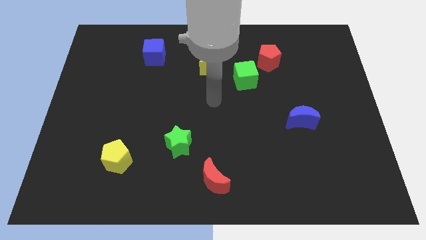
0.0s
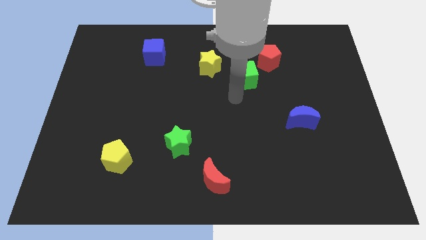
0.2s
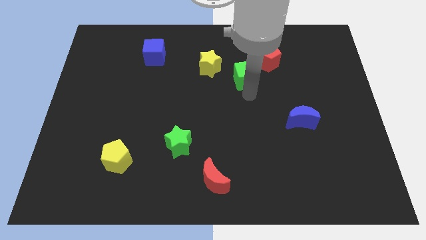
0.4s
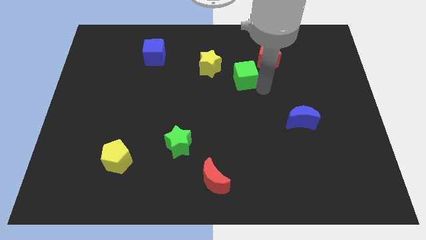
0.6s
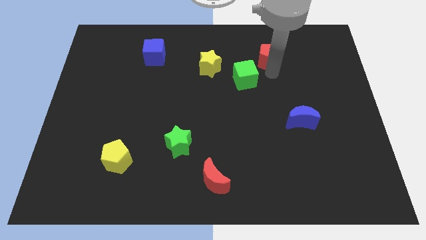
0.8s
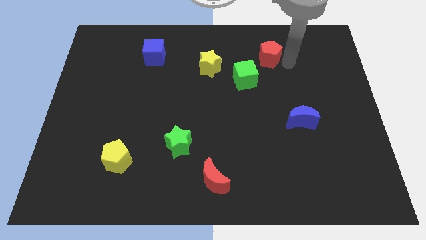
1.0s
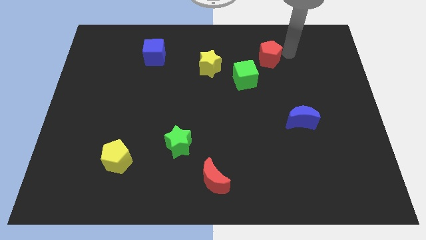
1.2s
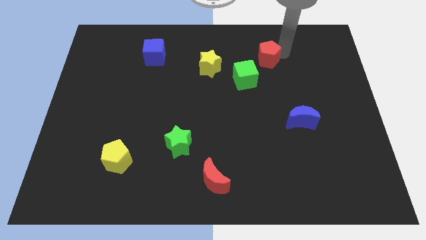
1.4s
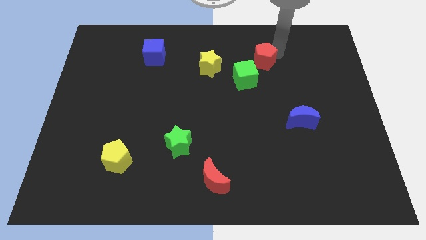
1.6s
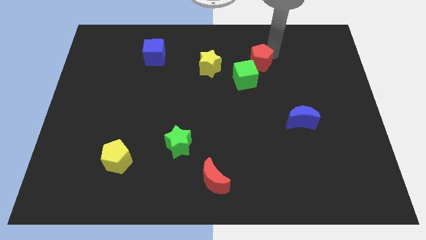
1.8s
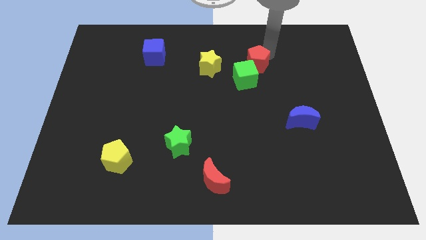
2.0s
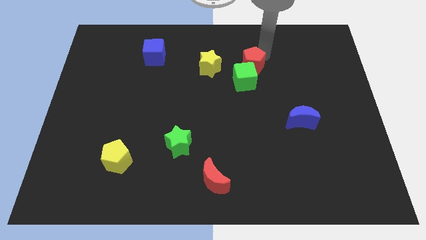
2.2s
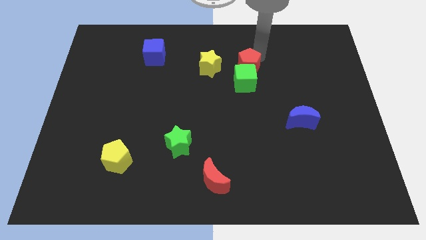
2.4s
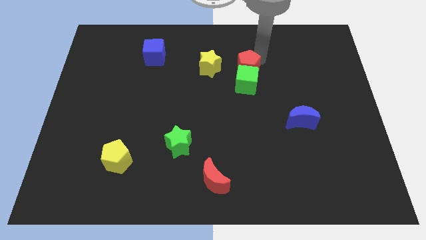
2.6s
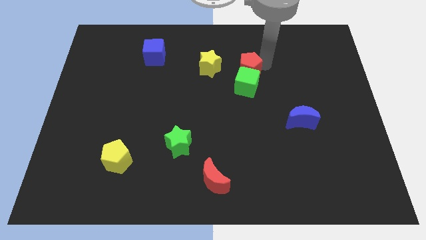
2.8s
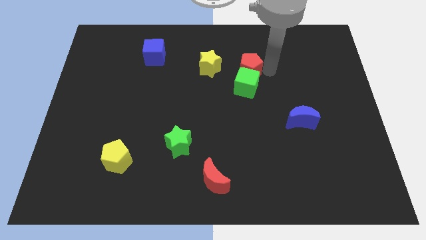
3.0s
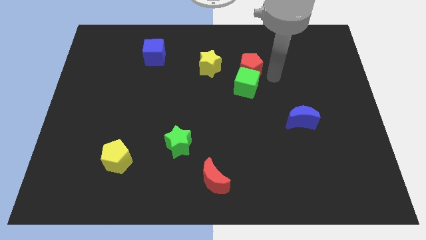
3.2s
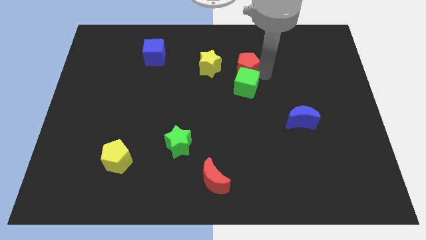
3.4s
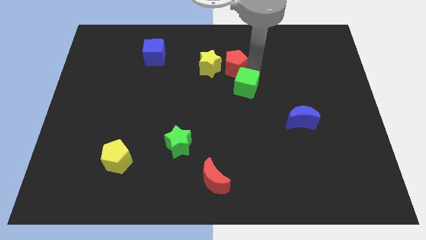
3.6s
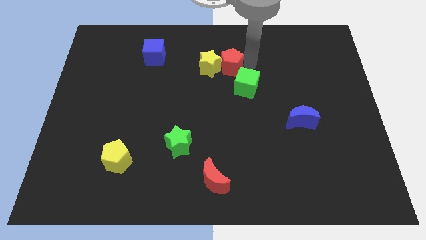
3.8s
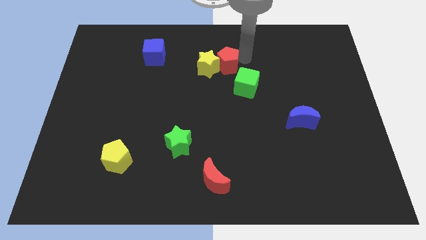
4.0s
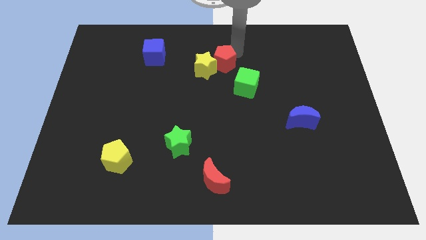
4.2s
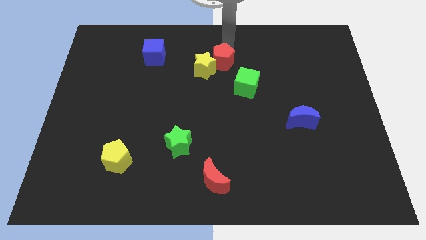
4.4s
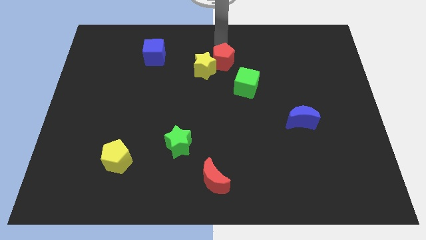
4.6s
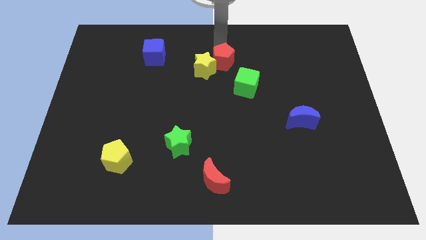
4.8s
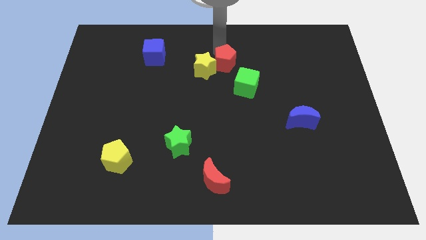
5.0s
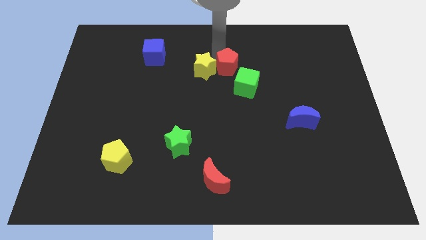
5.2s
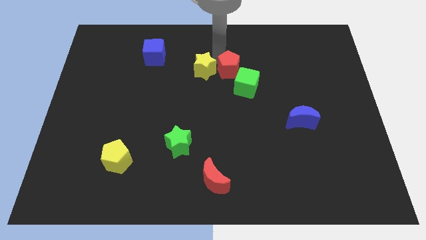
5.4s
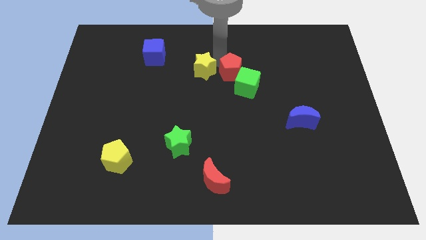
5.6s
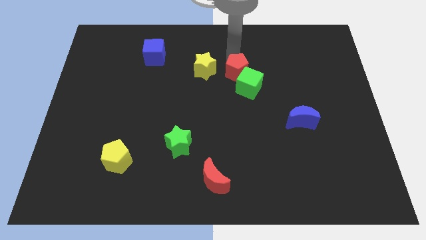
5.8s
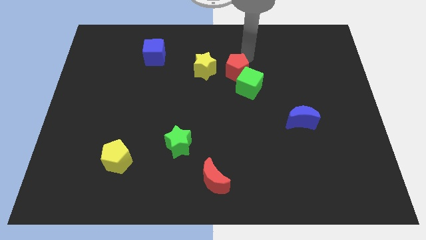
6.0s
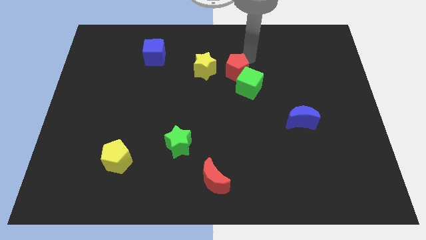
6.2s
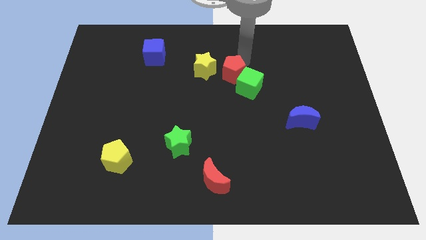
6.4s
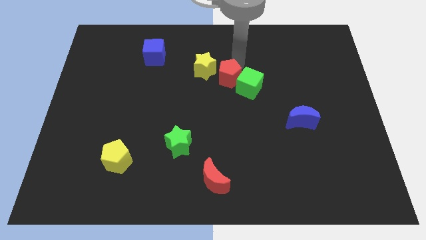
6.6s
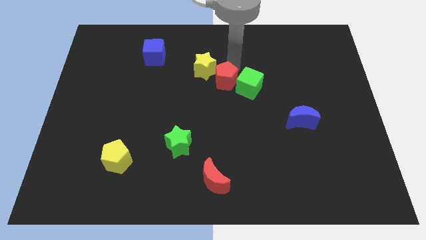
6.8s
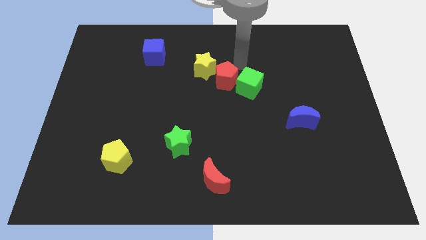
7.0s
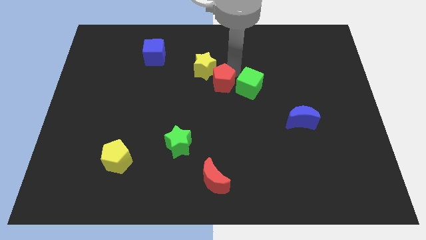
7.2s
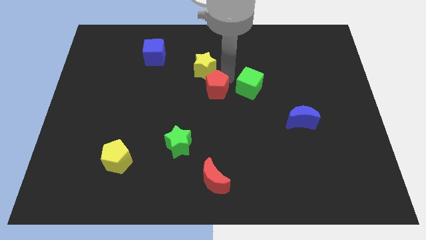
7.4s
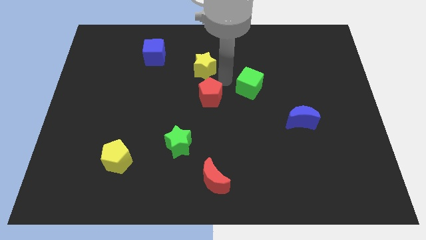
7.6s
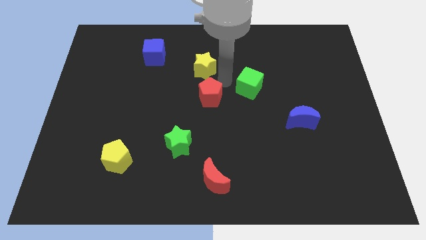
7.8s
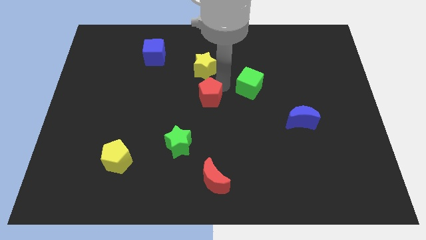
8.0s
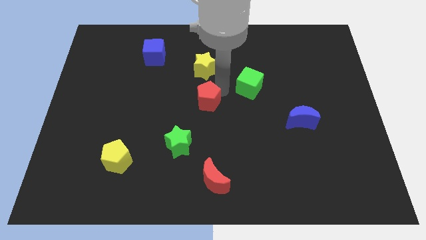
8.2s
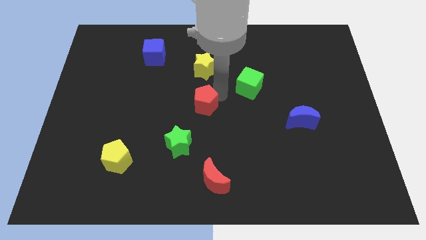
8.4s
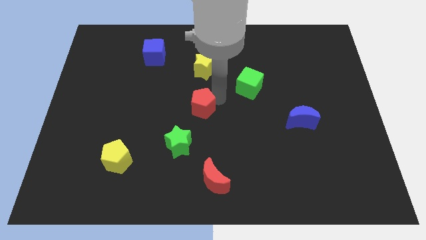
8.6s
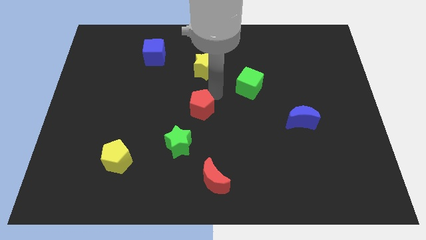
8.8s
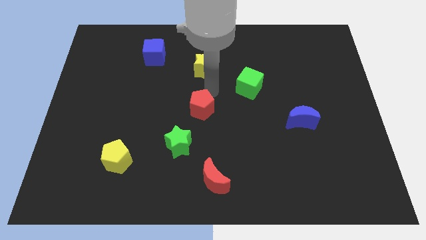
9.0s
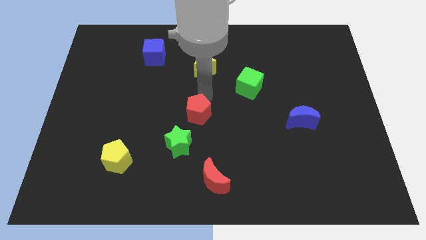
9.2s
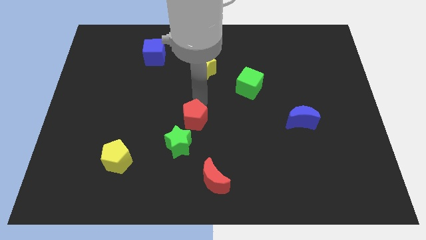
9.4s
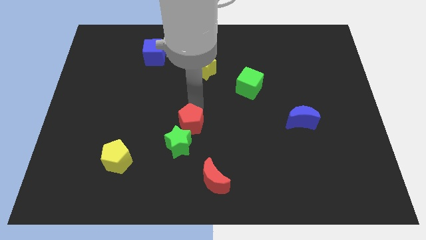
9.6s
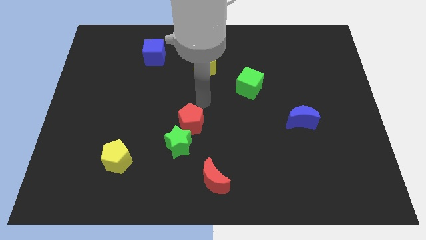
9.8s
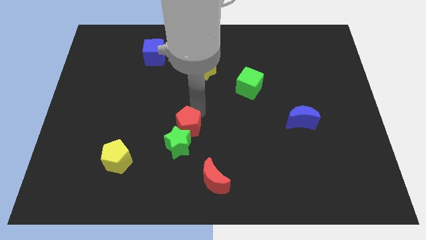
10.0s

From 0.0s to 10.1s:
put the red pentagon to the green star
